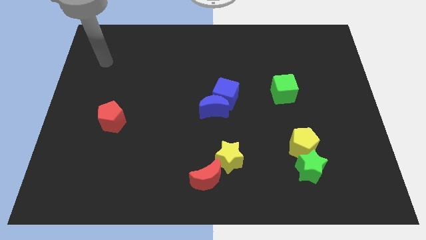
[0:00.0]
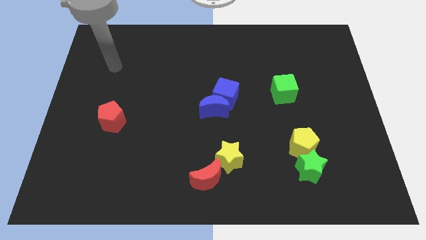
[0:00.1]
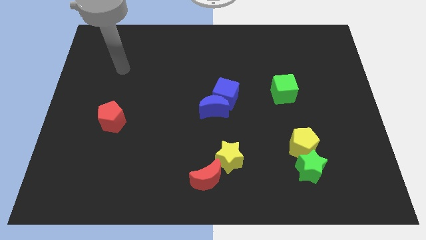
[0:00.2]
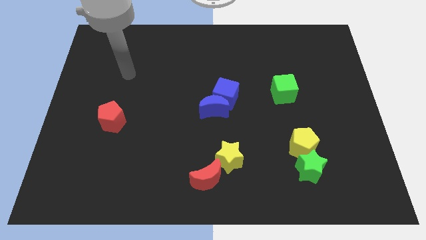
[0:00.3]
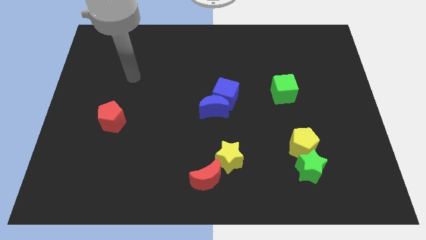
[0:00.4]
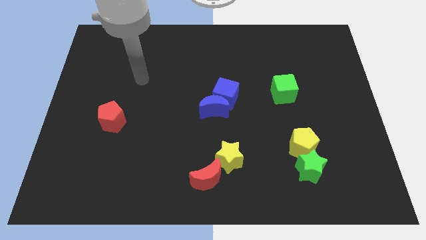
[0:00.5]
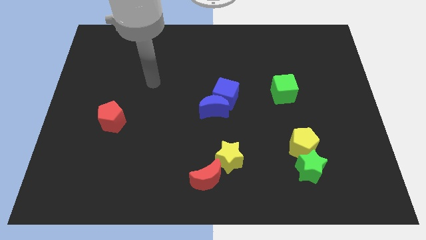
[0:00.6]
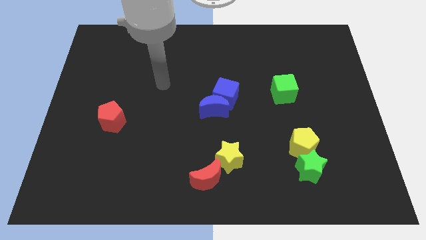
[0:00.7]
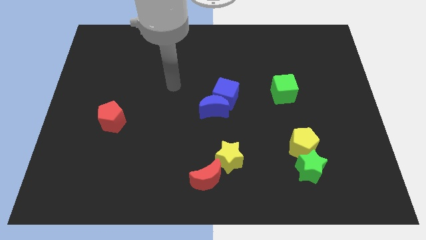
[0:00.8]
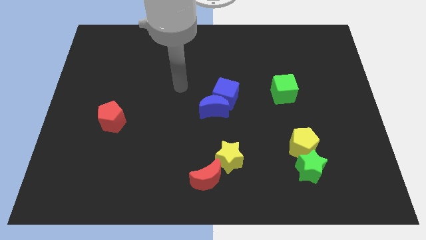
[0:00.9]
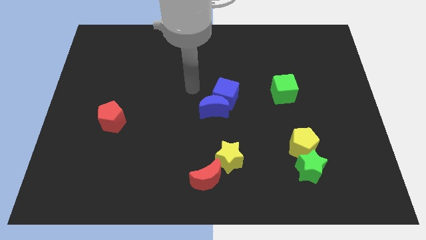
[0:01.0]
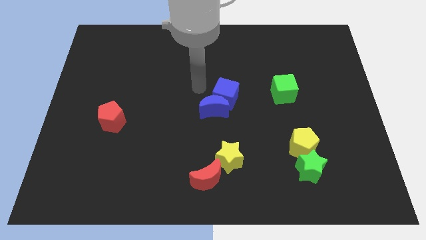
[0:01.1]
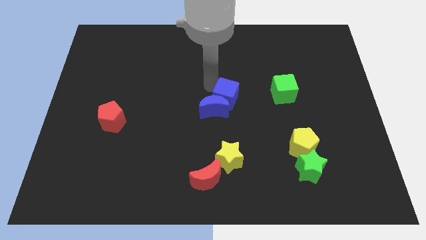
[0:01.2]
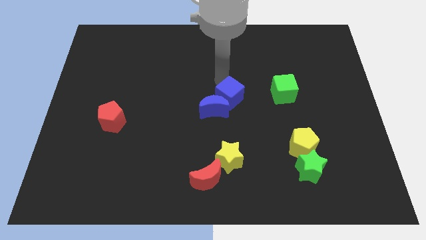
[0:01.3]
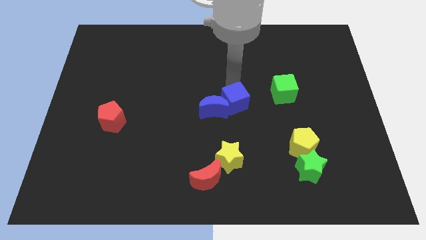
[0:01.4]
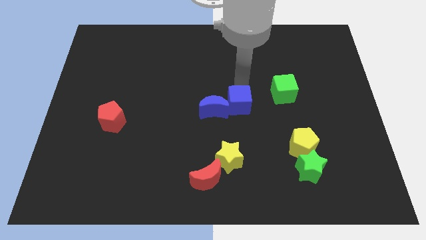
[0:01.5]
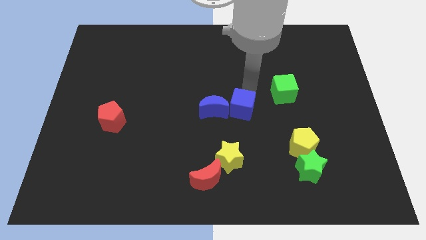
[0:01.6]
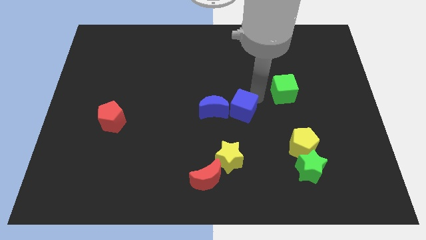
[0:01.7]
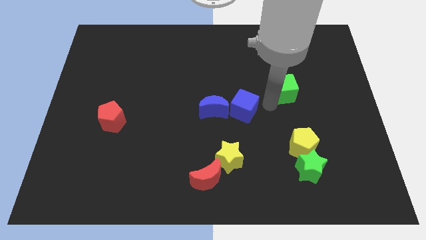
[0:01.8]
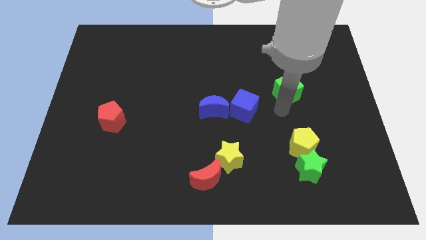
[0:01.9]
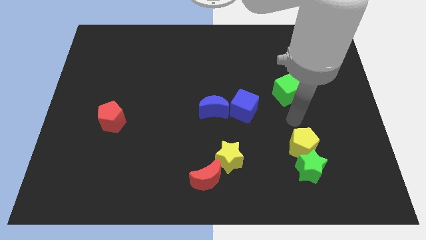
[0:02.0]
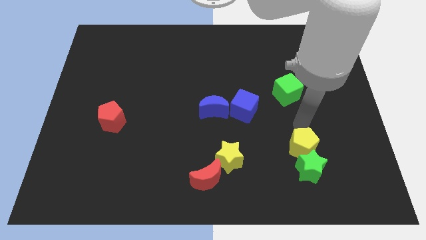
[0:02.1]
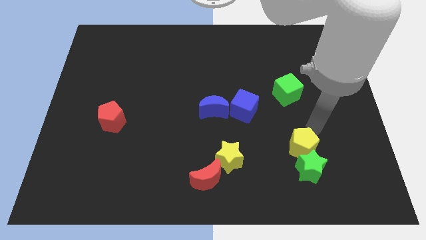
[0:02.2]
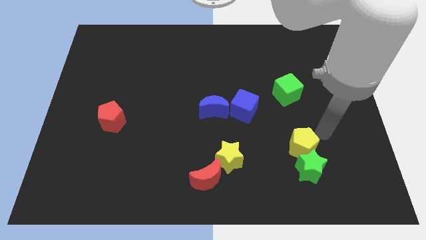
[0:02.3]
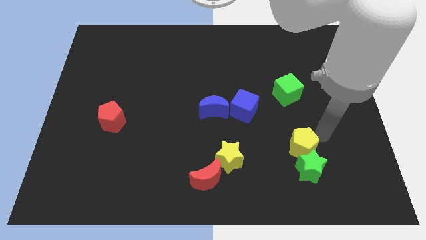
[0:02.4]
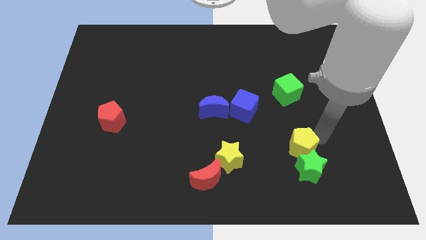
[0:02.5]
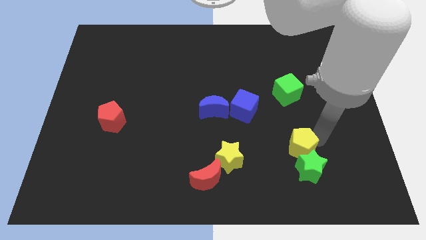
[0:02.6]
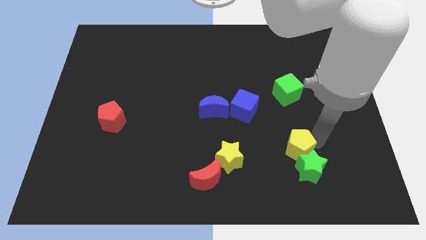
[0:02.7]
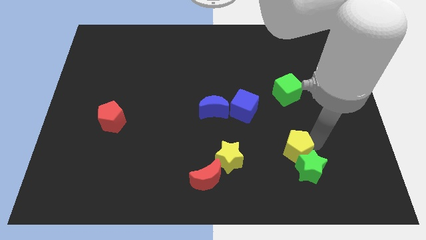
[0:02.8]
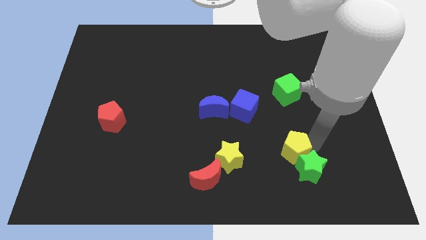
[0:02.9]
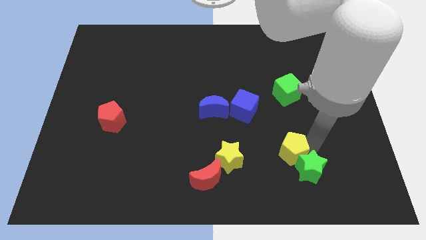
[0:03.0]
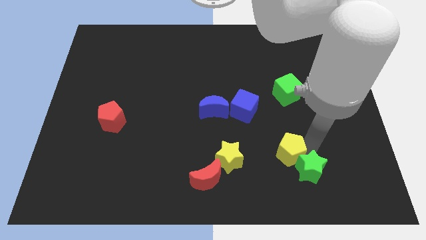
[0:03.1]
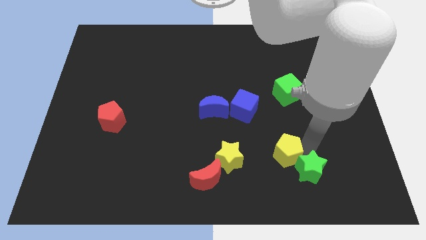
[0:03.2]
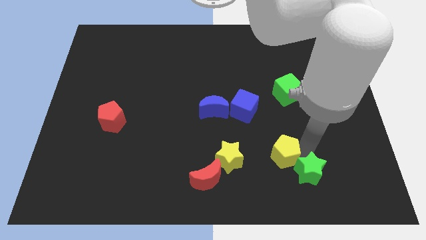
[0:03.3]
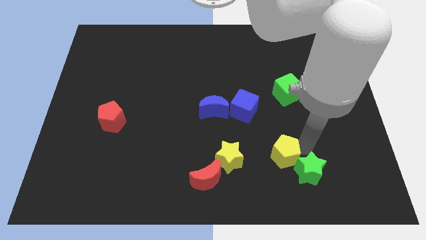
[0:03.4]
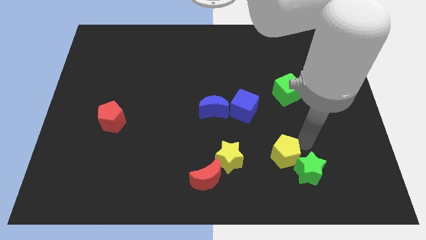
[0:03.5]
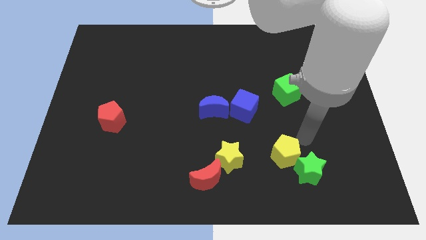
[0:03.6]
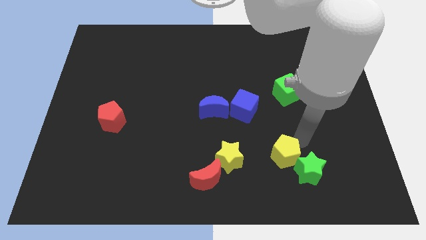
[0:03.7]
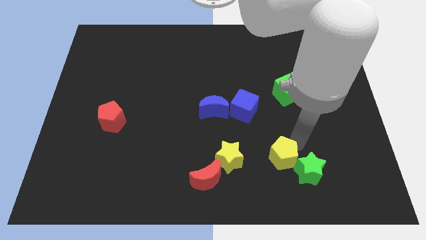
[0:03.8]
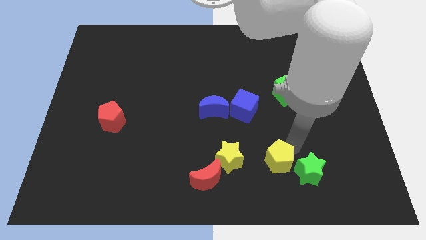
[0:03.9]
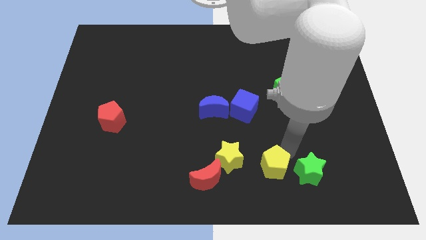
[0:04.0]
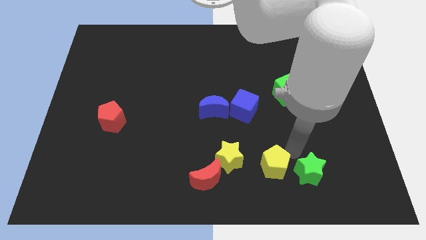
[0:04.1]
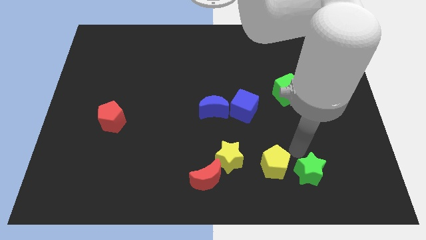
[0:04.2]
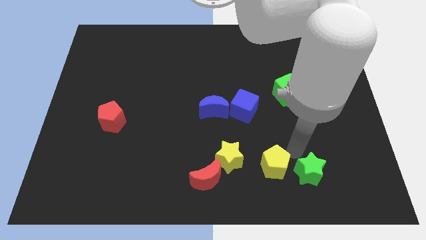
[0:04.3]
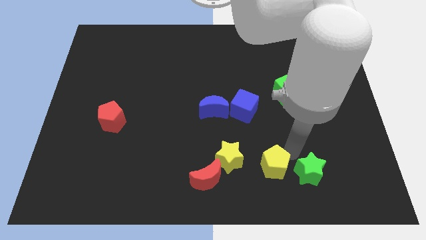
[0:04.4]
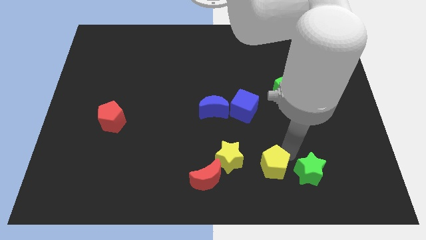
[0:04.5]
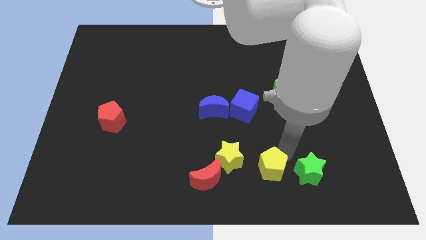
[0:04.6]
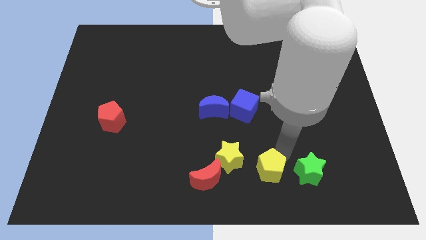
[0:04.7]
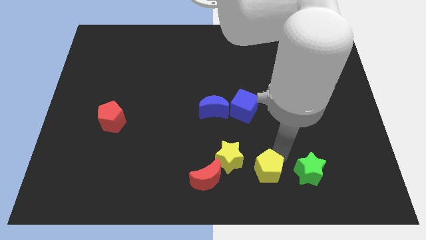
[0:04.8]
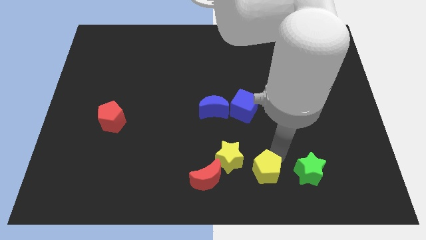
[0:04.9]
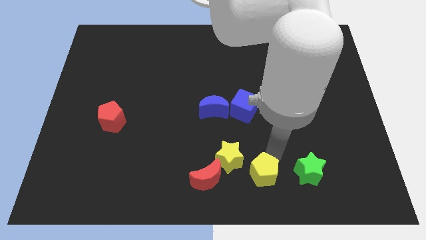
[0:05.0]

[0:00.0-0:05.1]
push the yellow pentagon to the bottom
